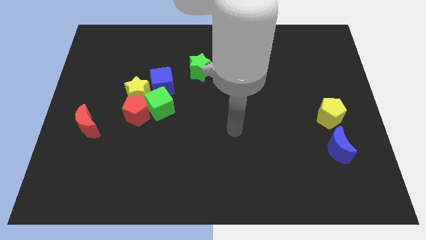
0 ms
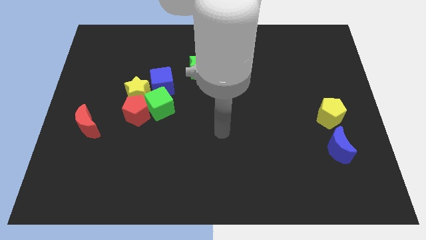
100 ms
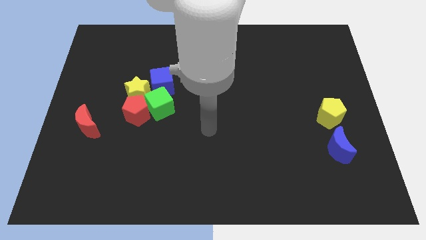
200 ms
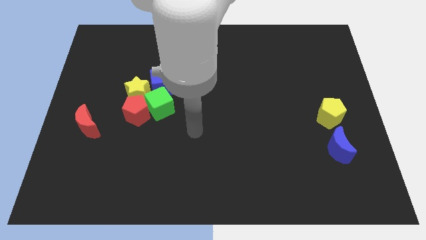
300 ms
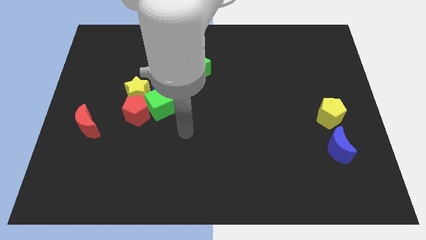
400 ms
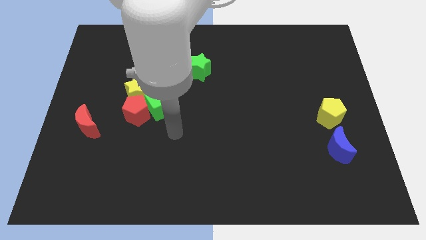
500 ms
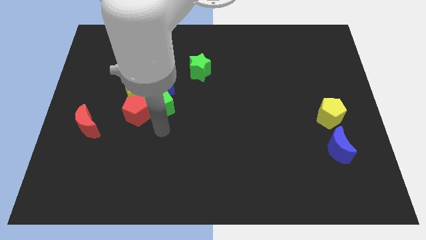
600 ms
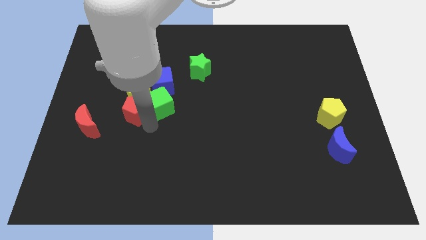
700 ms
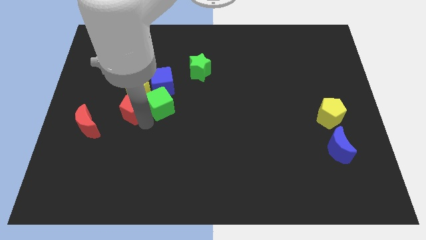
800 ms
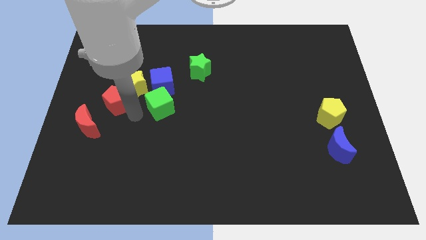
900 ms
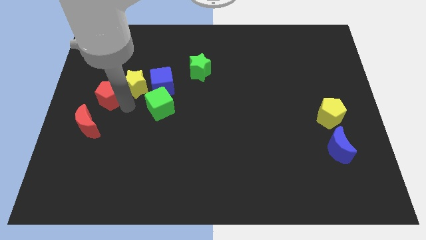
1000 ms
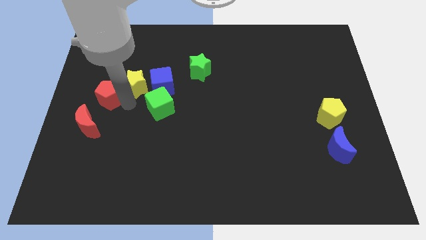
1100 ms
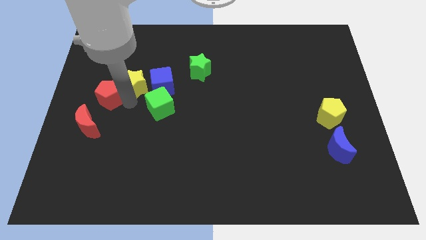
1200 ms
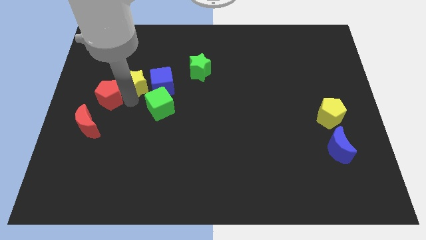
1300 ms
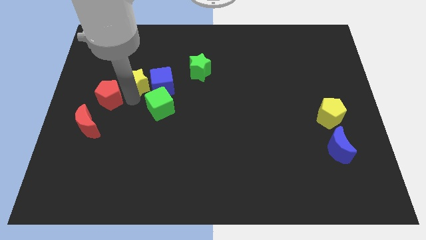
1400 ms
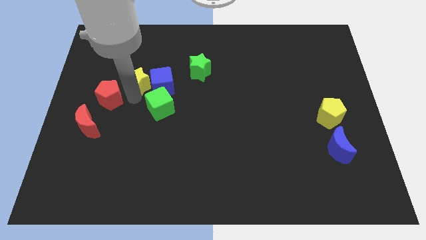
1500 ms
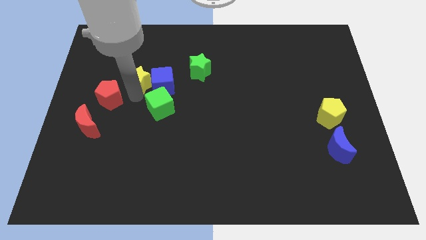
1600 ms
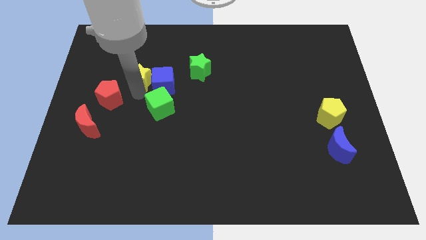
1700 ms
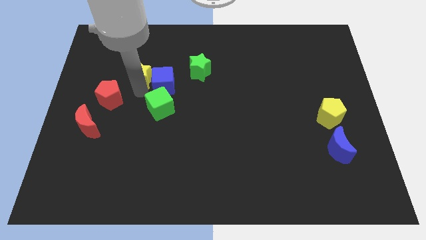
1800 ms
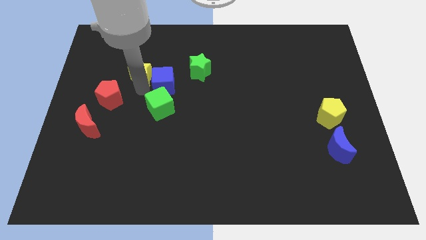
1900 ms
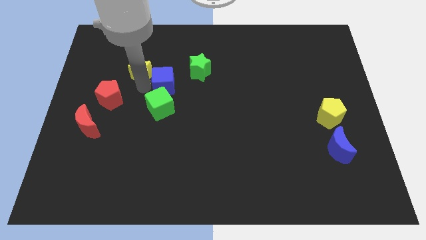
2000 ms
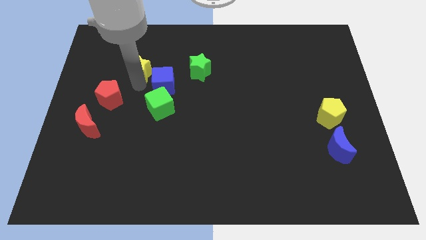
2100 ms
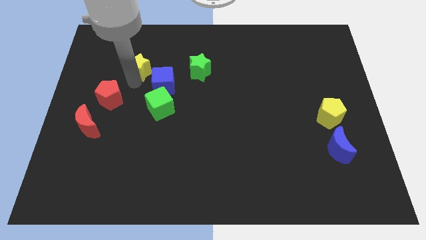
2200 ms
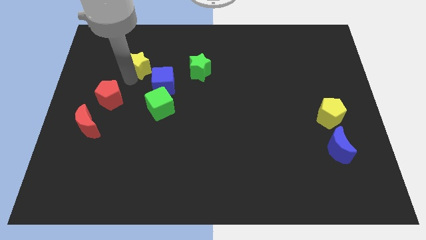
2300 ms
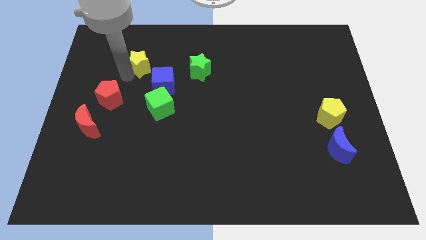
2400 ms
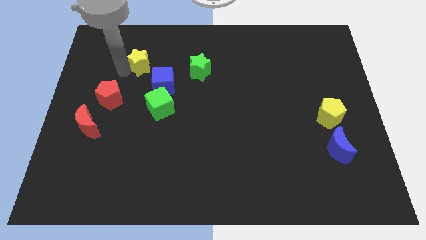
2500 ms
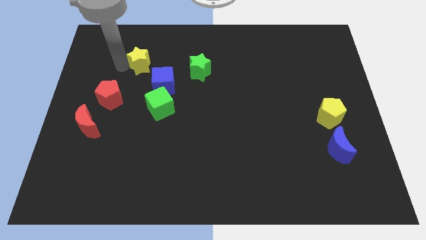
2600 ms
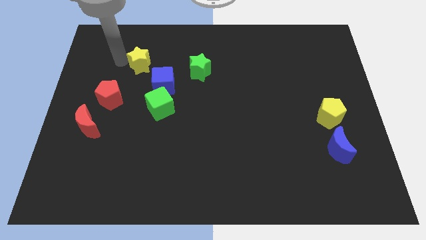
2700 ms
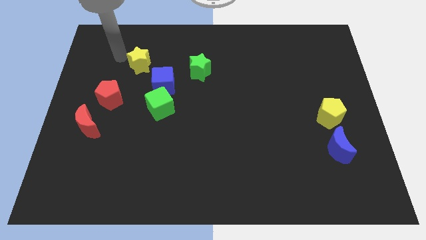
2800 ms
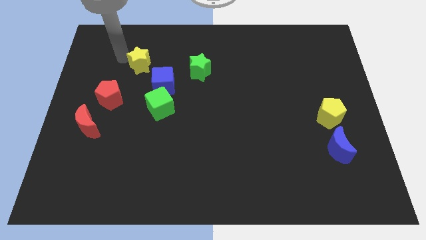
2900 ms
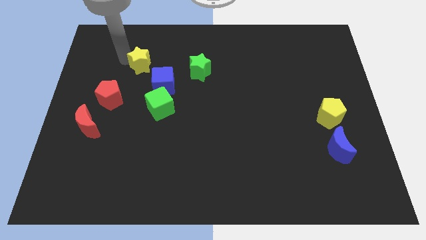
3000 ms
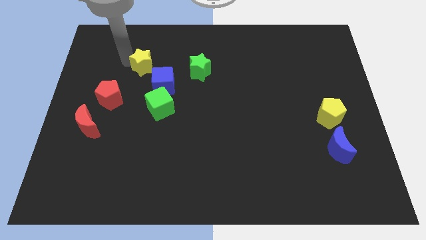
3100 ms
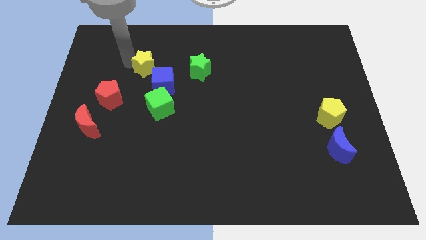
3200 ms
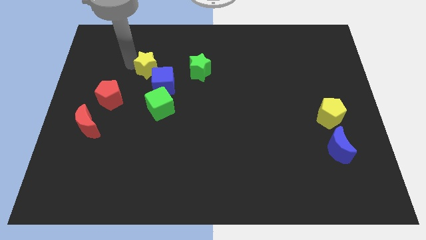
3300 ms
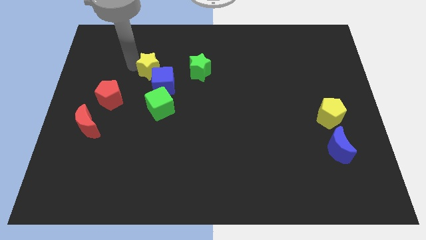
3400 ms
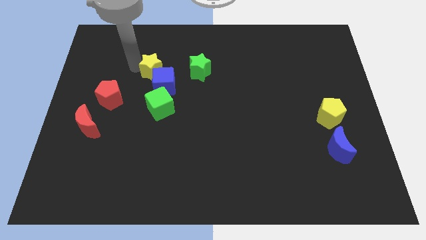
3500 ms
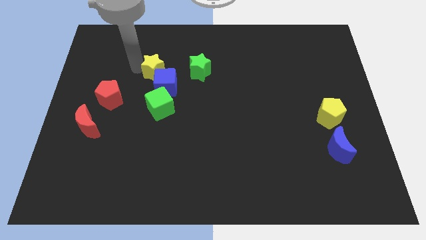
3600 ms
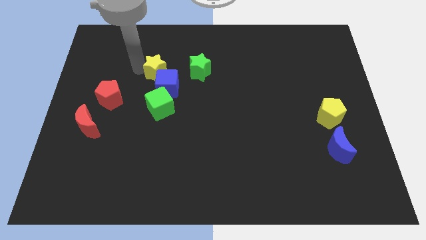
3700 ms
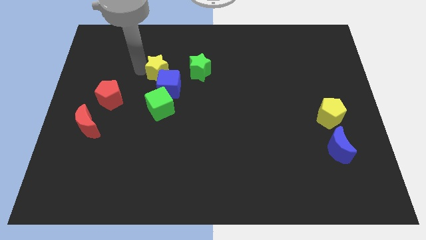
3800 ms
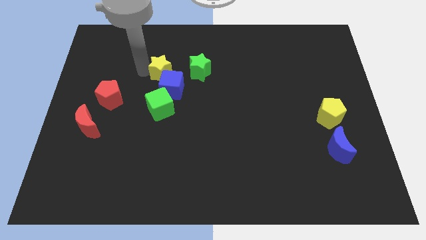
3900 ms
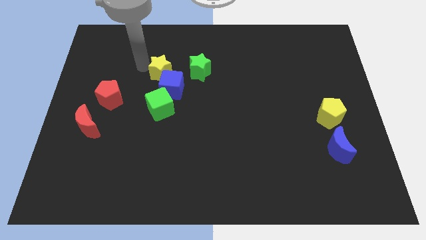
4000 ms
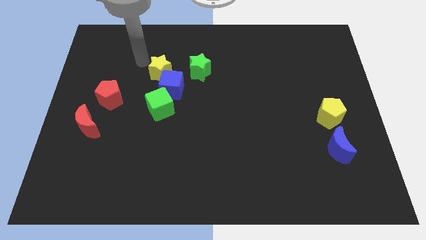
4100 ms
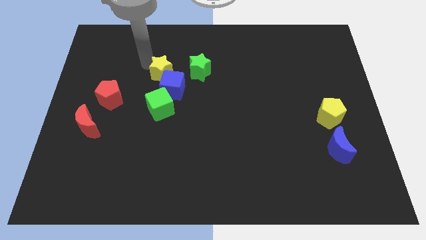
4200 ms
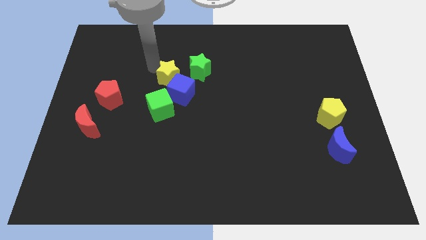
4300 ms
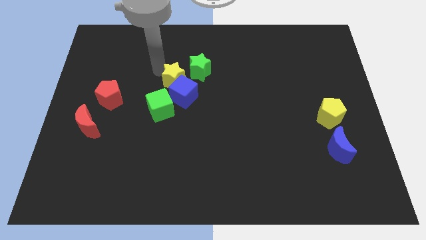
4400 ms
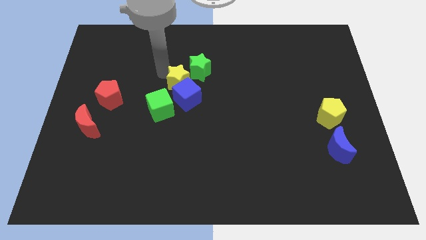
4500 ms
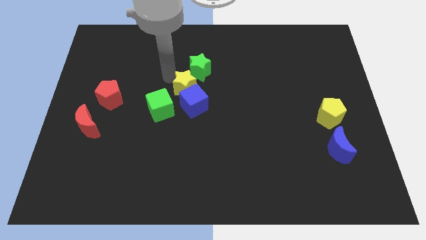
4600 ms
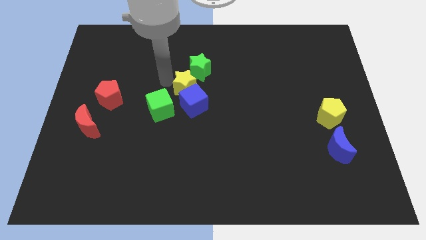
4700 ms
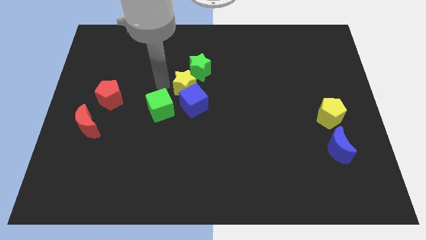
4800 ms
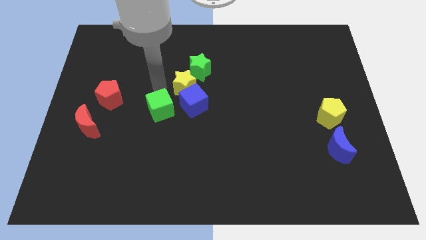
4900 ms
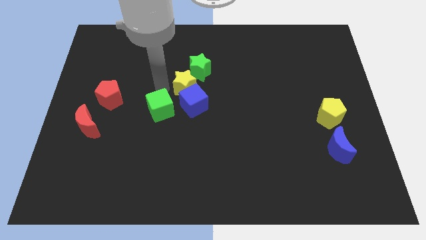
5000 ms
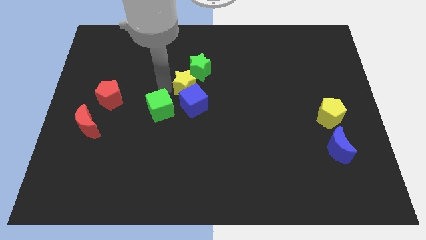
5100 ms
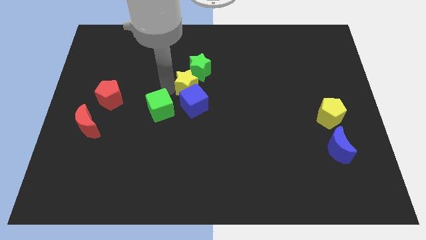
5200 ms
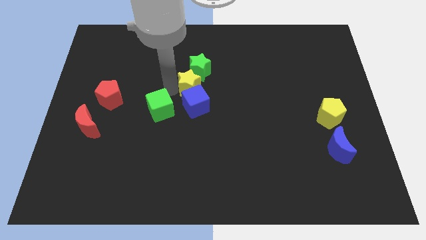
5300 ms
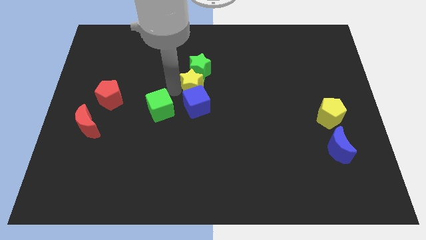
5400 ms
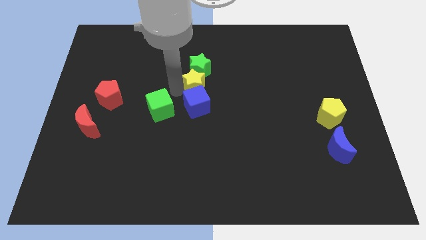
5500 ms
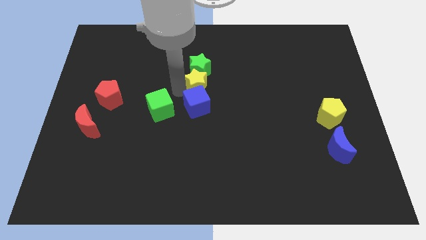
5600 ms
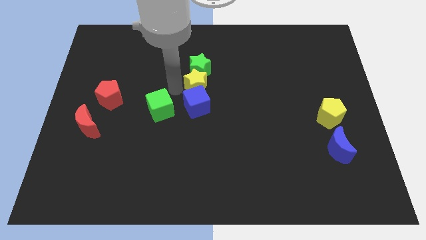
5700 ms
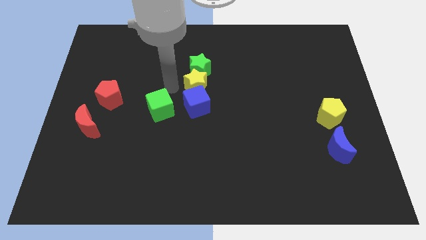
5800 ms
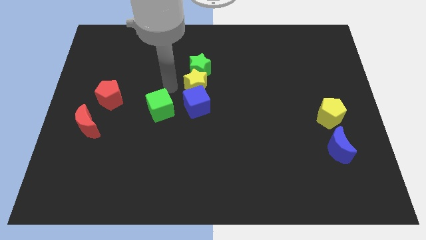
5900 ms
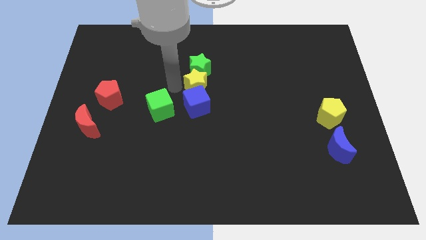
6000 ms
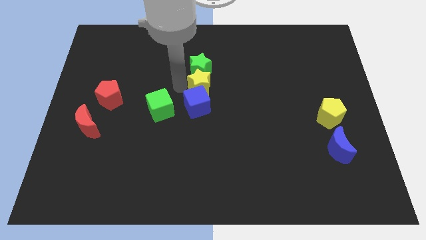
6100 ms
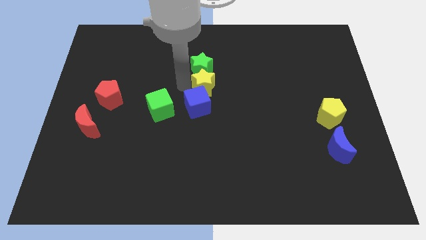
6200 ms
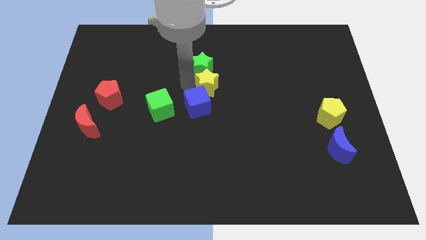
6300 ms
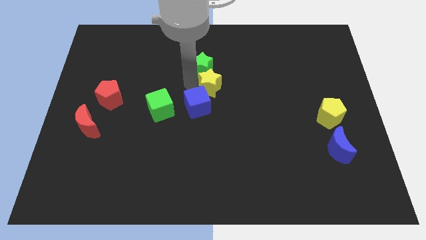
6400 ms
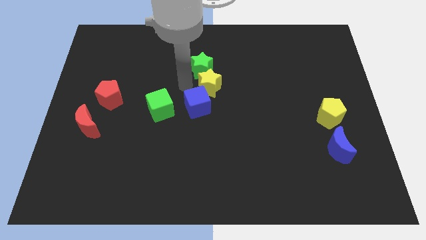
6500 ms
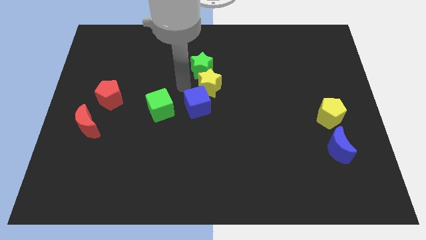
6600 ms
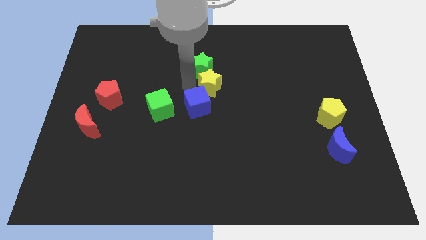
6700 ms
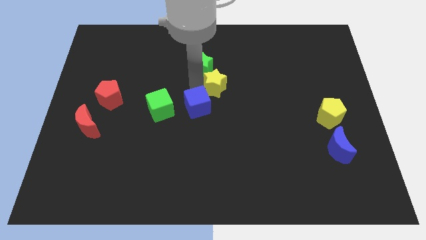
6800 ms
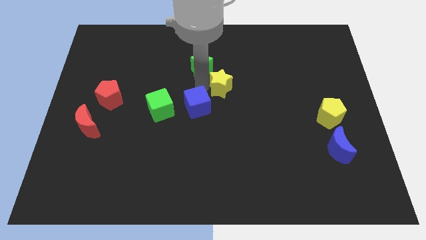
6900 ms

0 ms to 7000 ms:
move the yellow star to the right

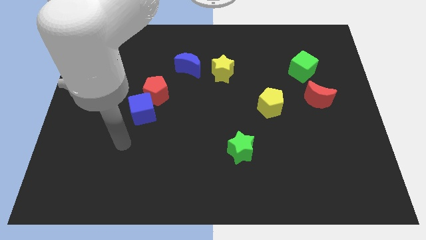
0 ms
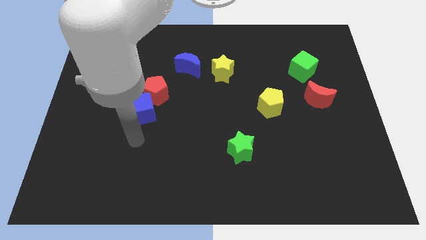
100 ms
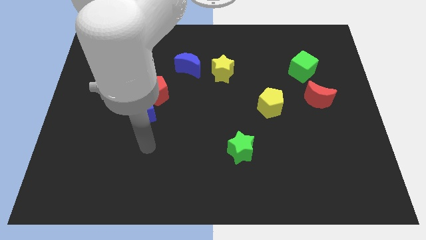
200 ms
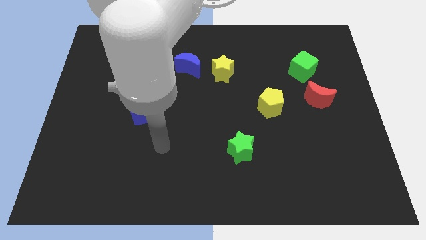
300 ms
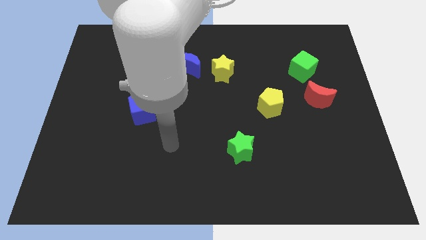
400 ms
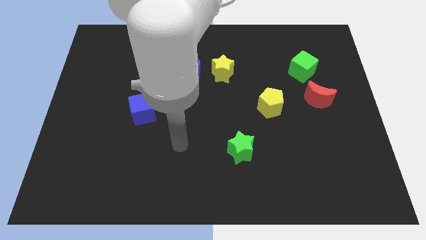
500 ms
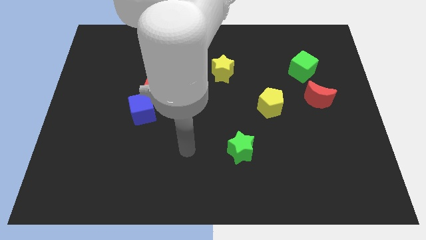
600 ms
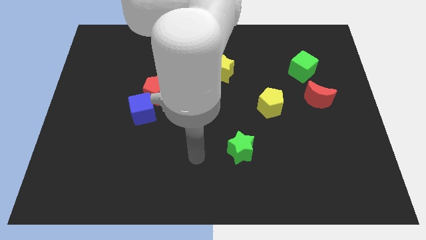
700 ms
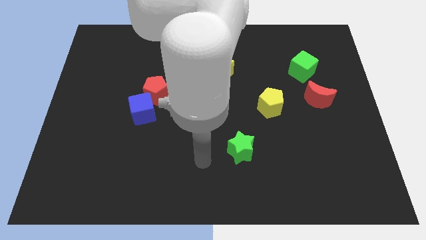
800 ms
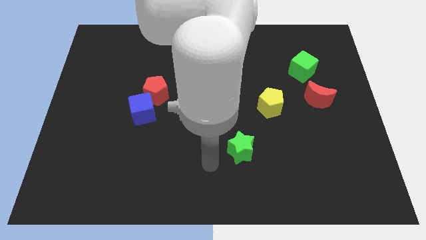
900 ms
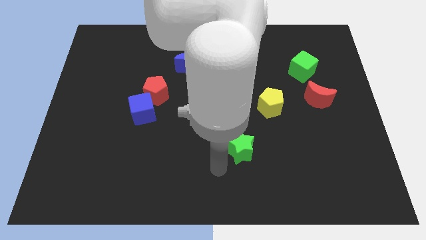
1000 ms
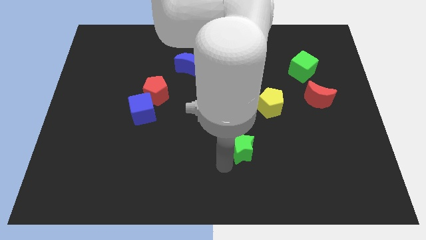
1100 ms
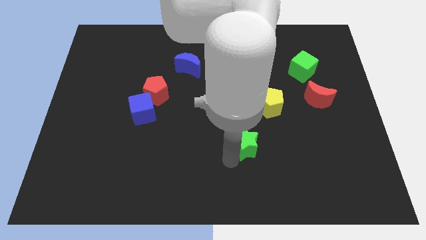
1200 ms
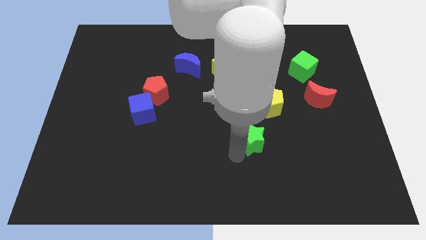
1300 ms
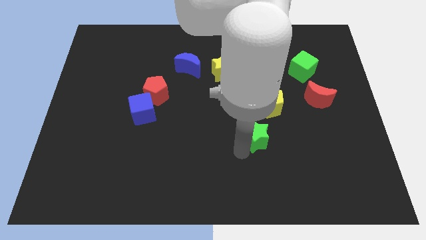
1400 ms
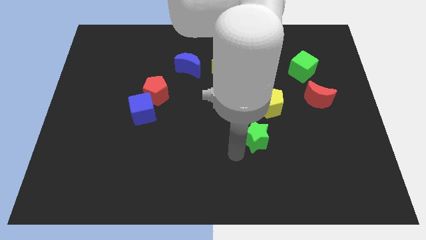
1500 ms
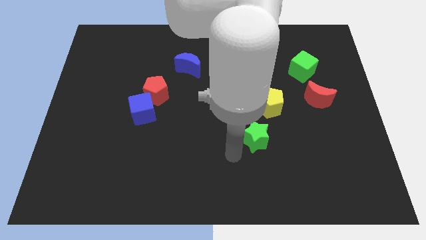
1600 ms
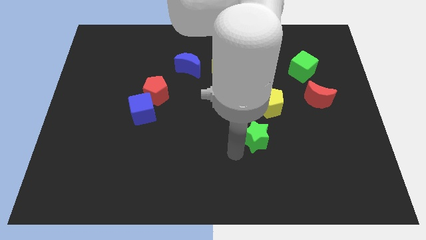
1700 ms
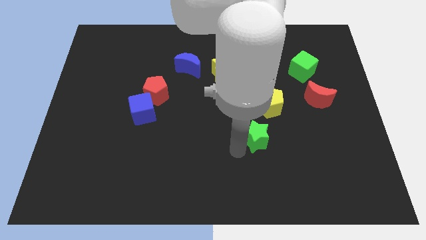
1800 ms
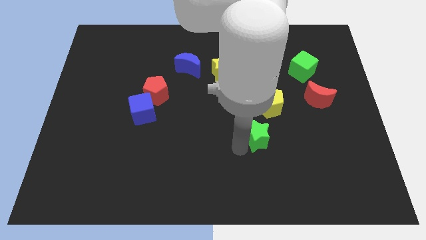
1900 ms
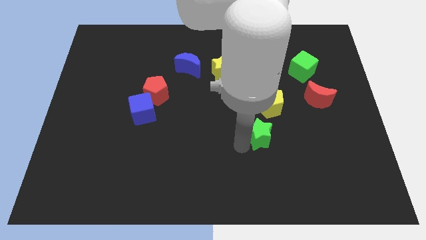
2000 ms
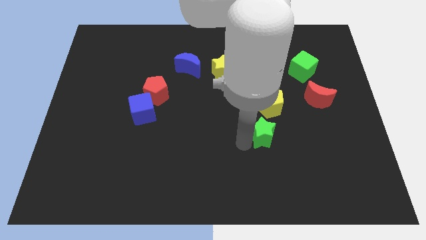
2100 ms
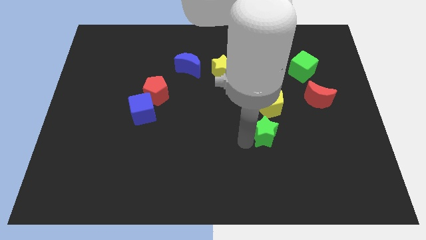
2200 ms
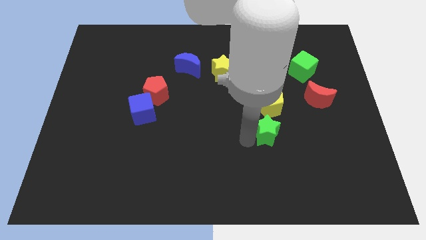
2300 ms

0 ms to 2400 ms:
move the green star up and then right a little bit
